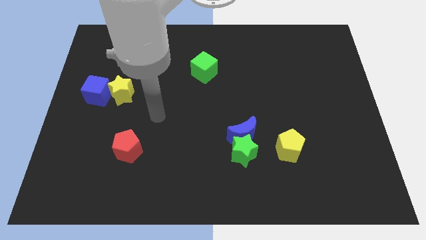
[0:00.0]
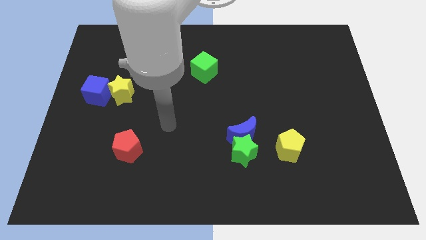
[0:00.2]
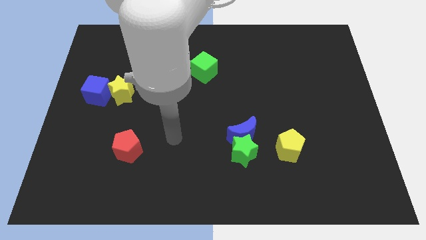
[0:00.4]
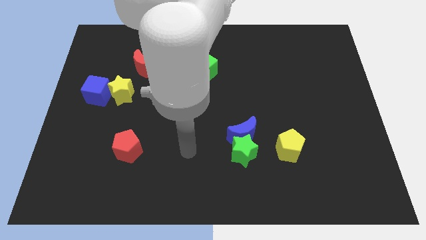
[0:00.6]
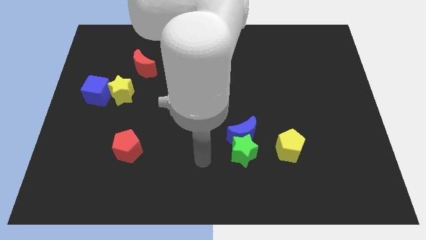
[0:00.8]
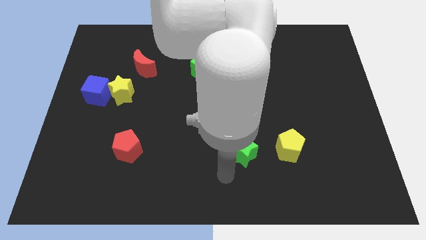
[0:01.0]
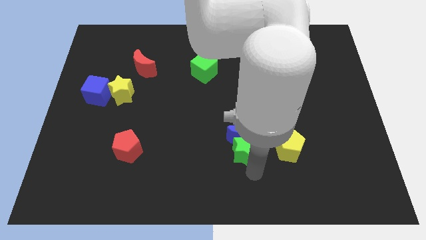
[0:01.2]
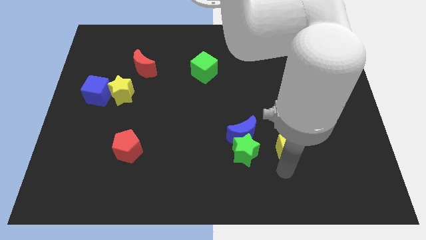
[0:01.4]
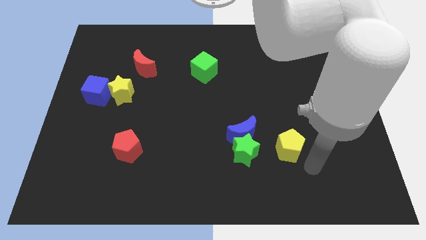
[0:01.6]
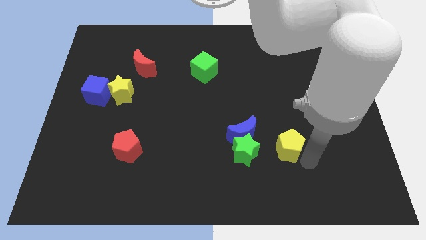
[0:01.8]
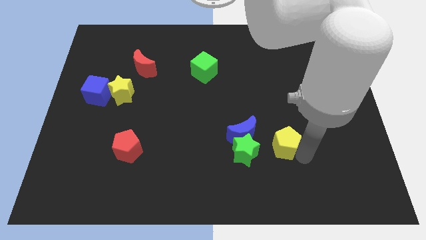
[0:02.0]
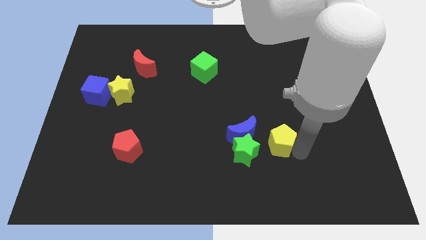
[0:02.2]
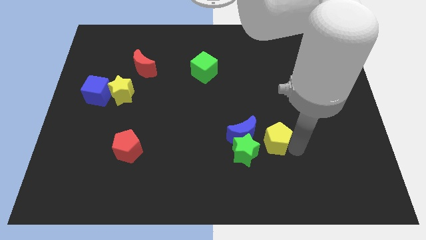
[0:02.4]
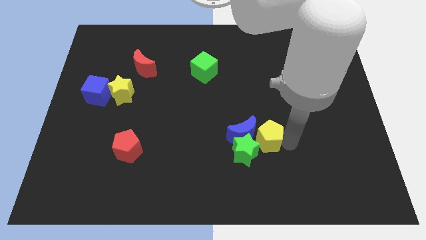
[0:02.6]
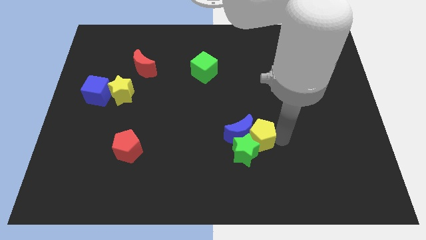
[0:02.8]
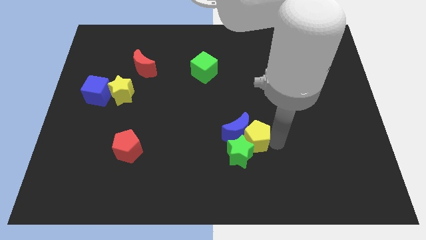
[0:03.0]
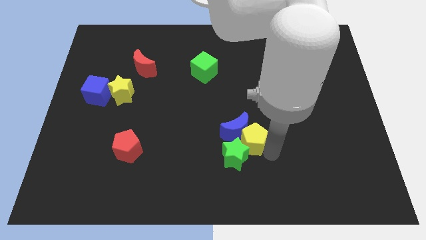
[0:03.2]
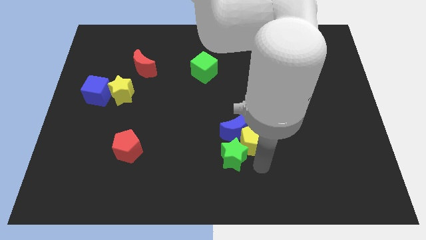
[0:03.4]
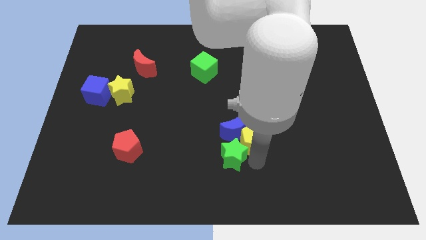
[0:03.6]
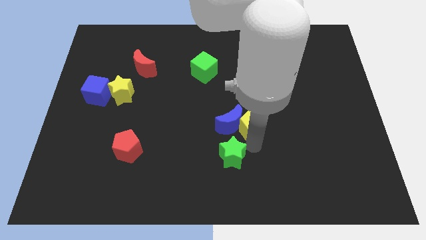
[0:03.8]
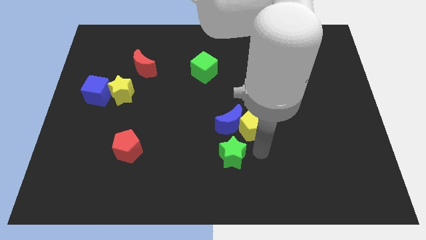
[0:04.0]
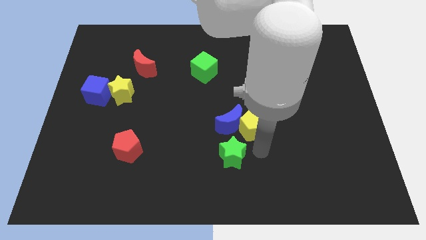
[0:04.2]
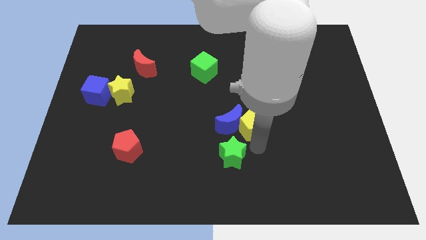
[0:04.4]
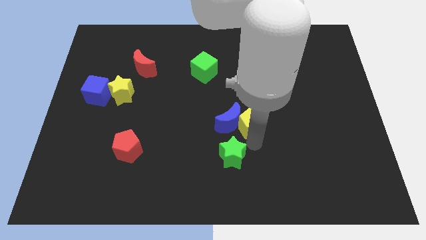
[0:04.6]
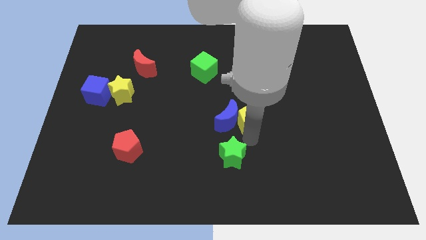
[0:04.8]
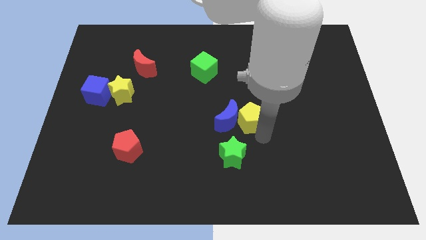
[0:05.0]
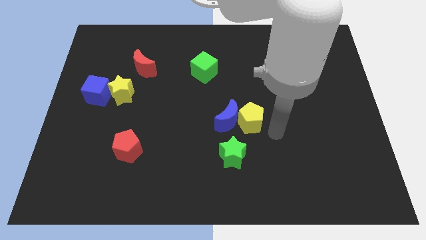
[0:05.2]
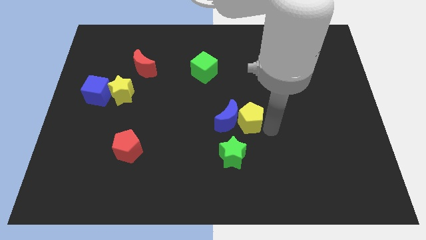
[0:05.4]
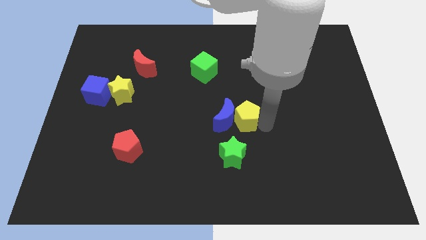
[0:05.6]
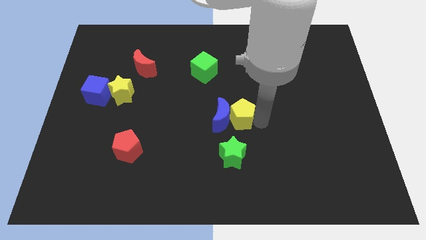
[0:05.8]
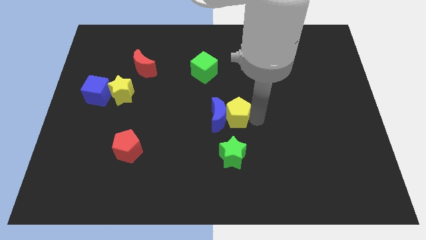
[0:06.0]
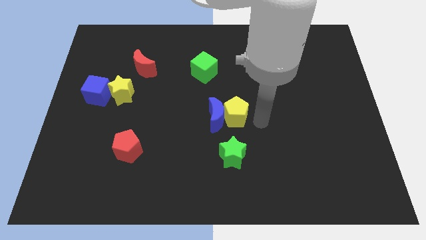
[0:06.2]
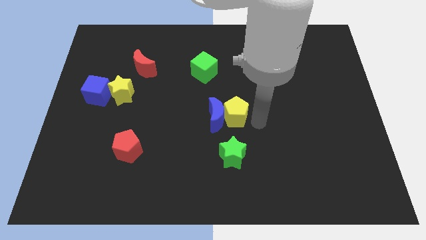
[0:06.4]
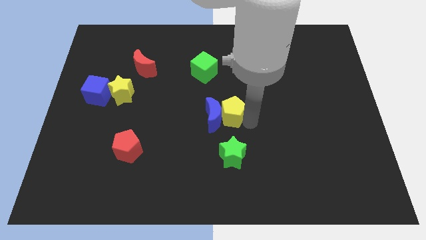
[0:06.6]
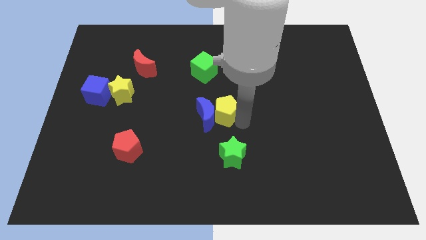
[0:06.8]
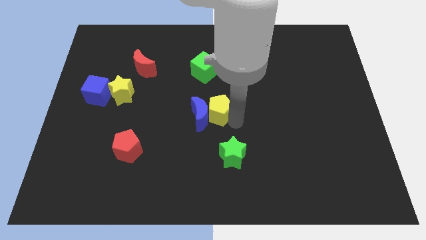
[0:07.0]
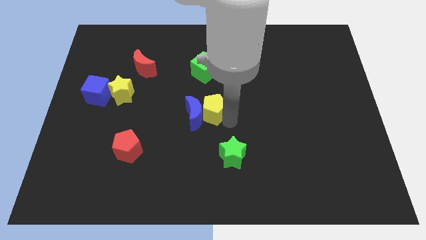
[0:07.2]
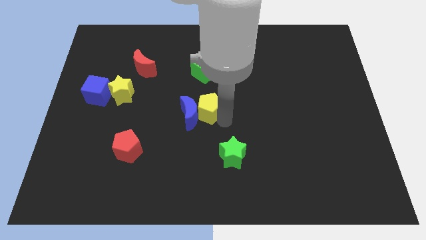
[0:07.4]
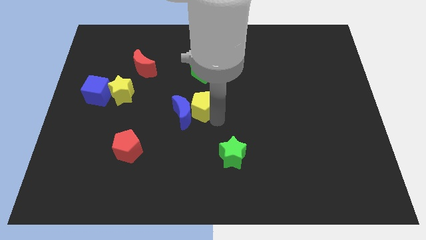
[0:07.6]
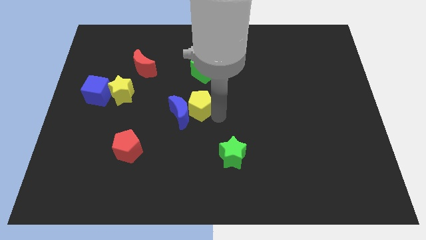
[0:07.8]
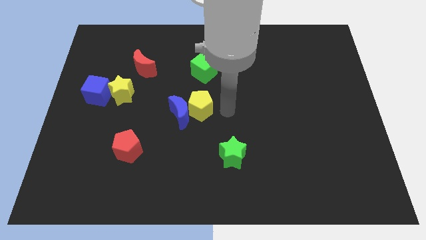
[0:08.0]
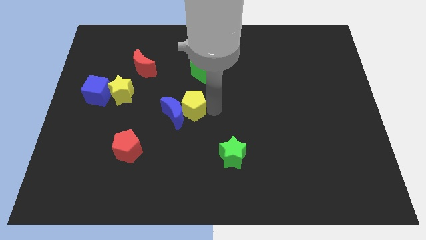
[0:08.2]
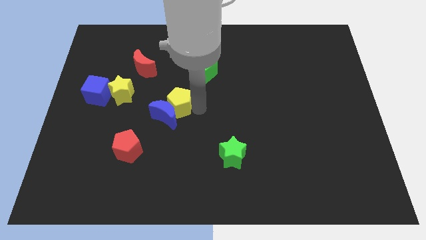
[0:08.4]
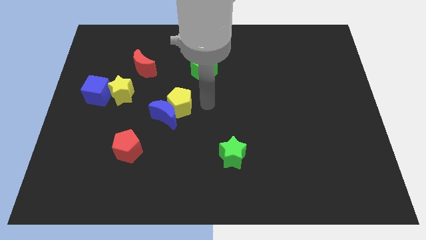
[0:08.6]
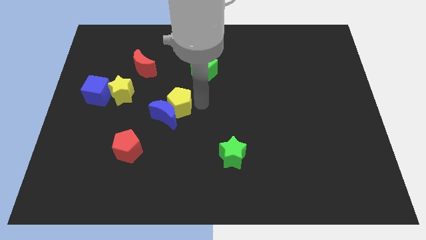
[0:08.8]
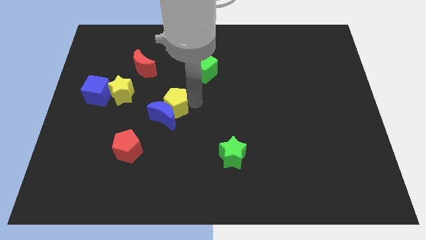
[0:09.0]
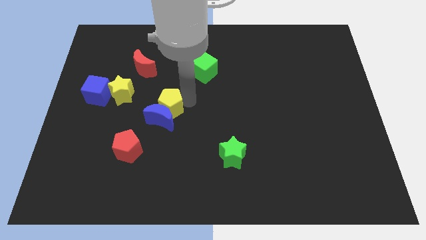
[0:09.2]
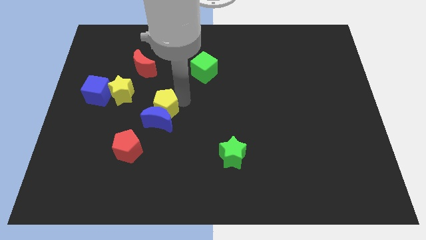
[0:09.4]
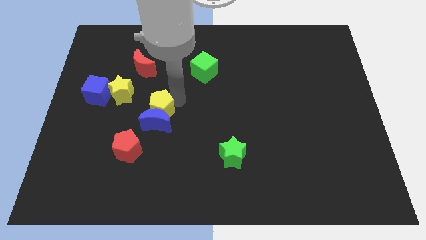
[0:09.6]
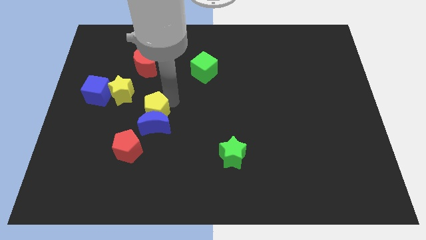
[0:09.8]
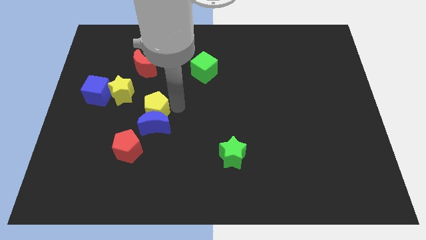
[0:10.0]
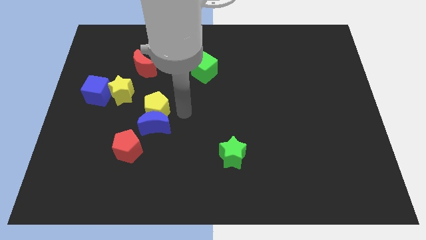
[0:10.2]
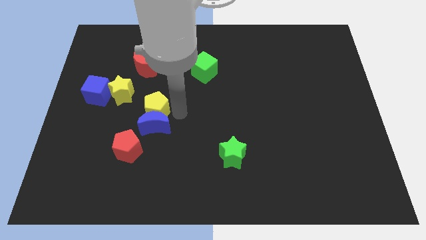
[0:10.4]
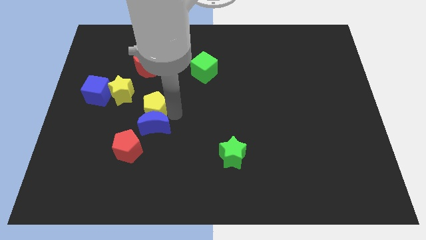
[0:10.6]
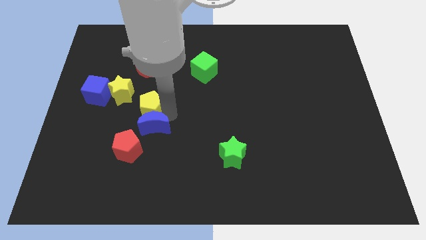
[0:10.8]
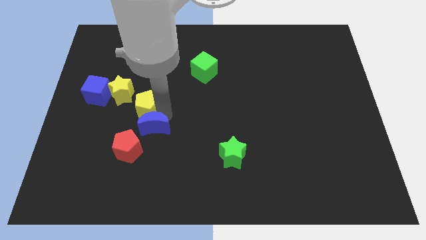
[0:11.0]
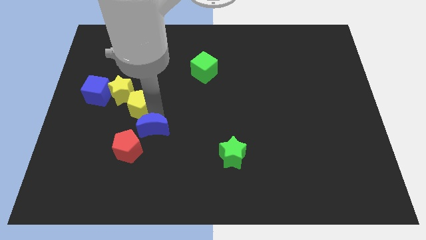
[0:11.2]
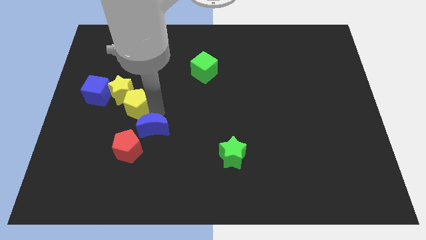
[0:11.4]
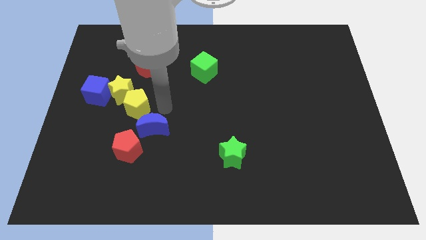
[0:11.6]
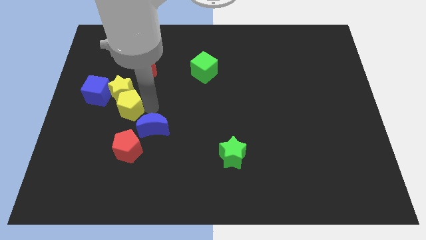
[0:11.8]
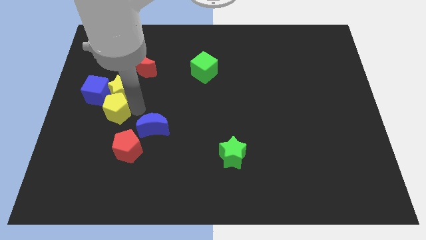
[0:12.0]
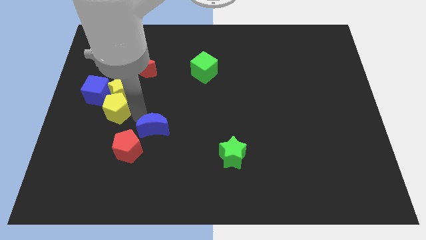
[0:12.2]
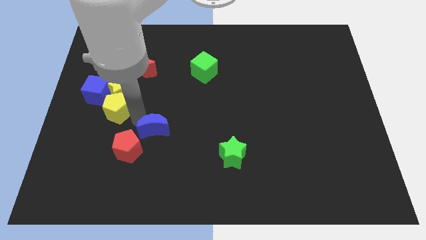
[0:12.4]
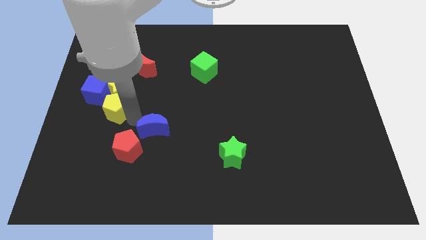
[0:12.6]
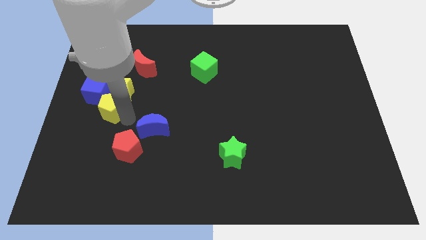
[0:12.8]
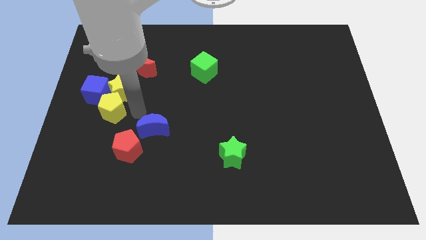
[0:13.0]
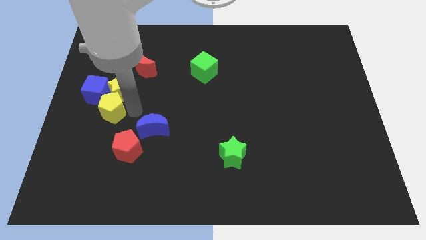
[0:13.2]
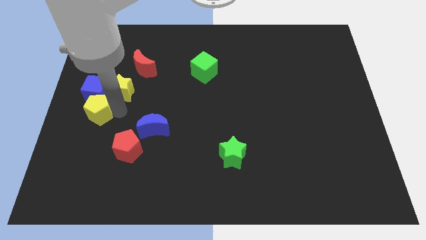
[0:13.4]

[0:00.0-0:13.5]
push the yellow pentagon to the left side of the board
